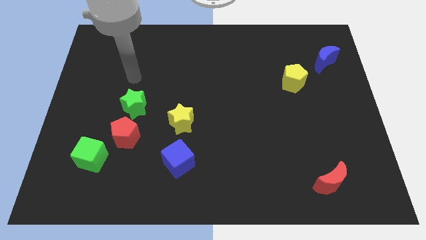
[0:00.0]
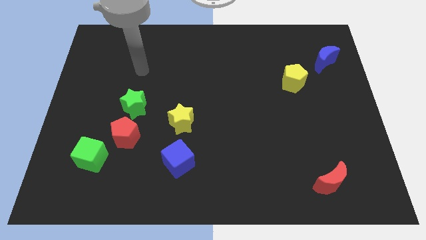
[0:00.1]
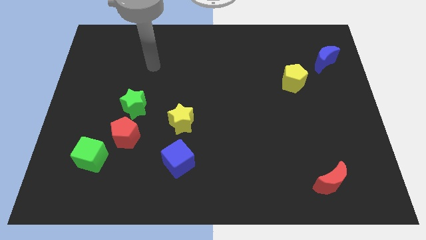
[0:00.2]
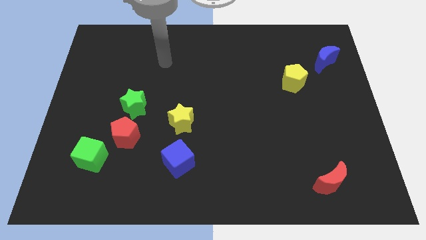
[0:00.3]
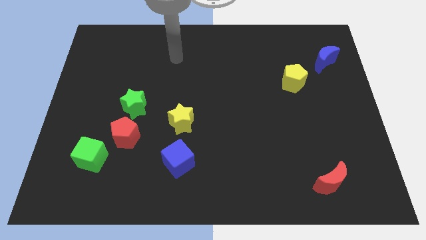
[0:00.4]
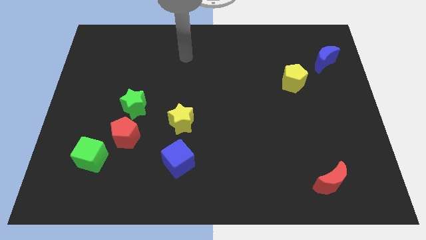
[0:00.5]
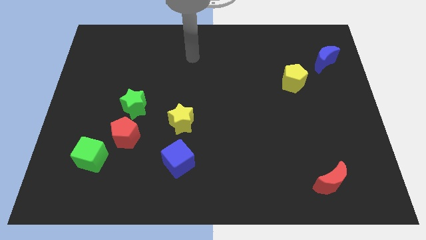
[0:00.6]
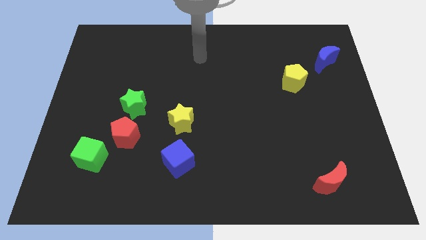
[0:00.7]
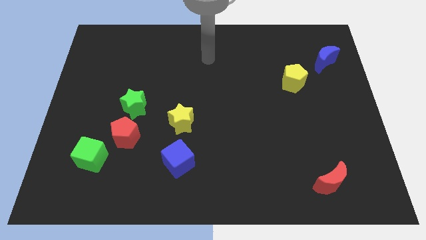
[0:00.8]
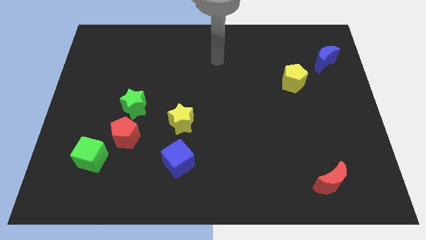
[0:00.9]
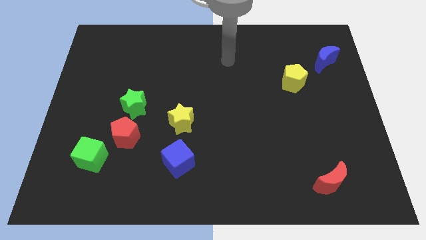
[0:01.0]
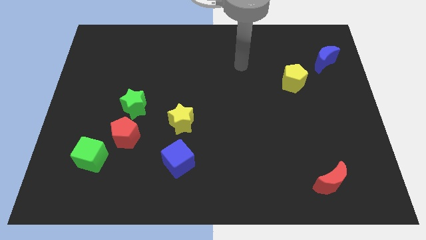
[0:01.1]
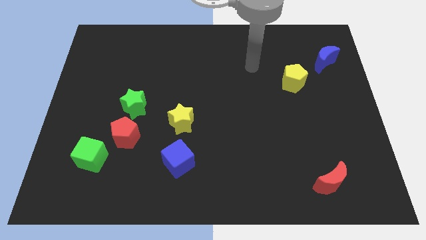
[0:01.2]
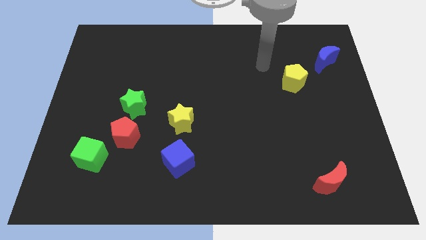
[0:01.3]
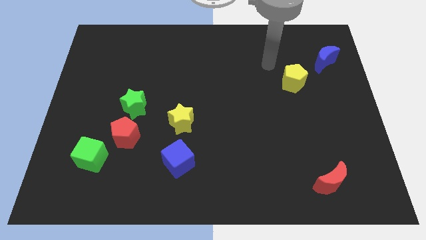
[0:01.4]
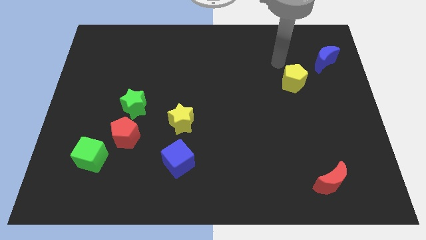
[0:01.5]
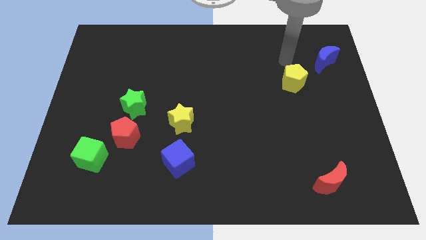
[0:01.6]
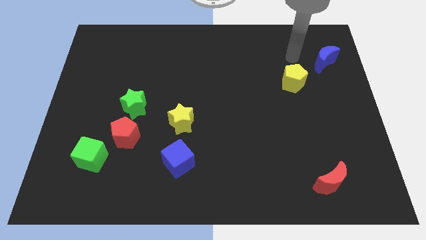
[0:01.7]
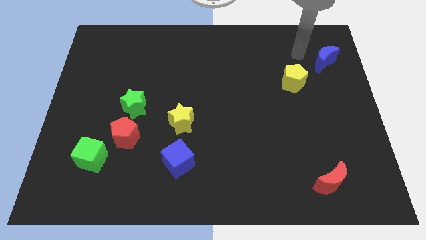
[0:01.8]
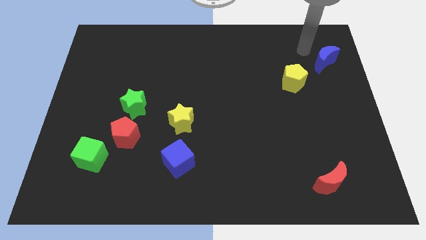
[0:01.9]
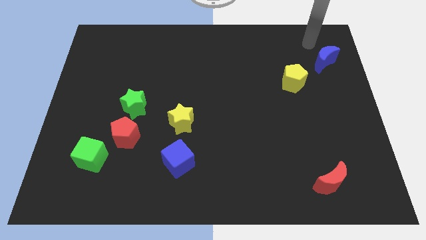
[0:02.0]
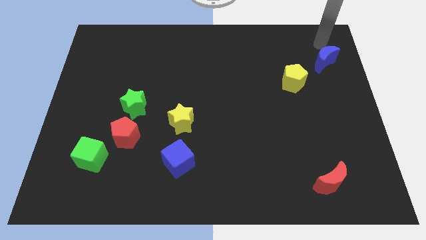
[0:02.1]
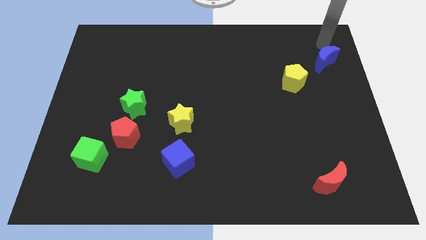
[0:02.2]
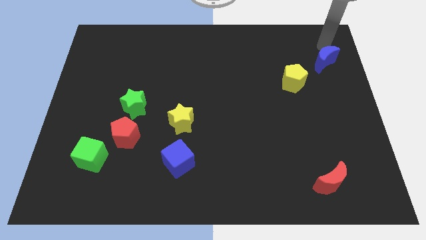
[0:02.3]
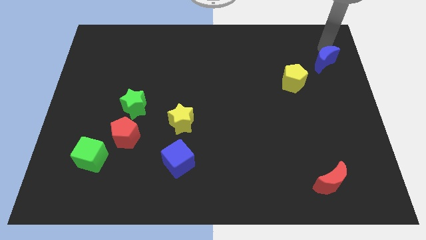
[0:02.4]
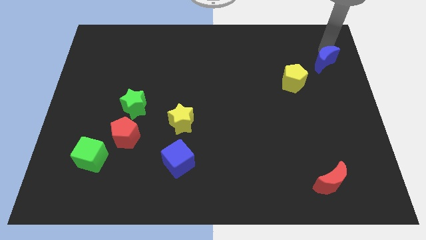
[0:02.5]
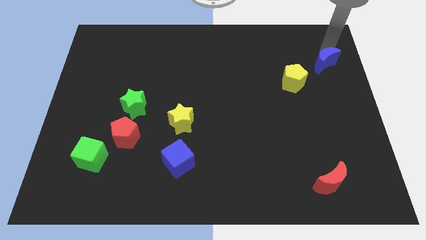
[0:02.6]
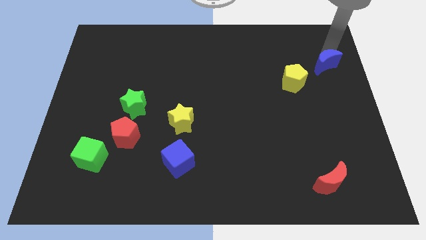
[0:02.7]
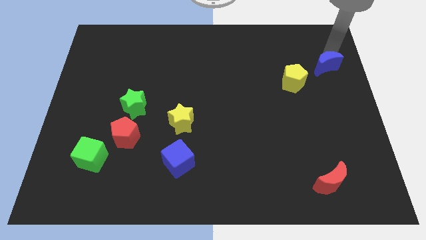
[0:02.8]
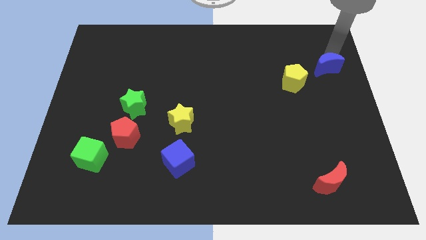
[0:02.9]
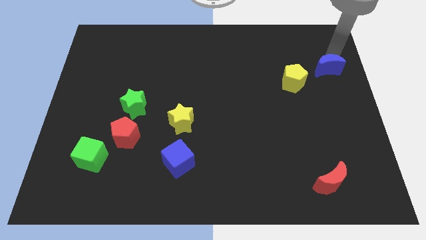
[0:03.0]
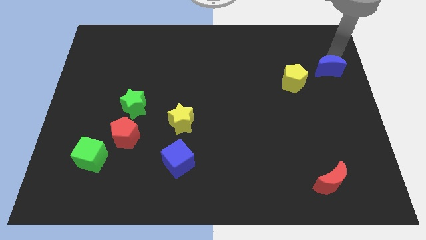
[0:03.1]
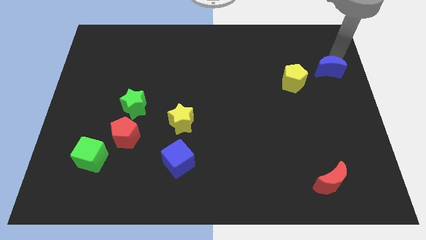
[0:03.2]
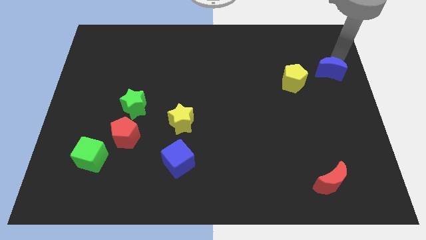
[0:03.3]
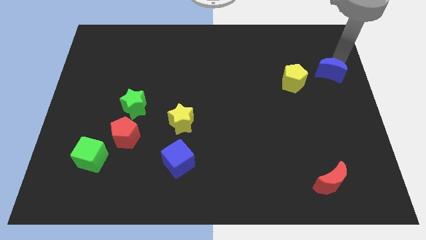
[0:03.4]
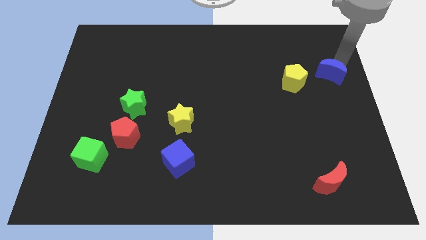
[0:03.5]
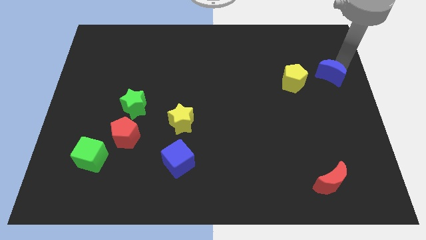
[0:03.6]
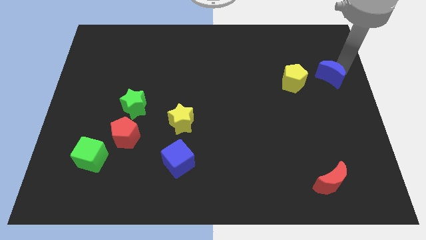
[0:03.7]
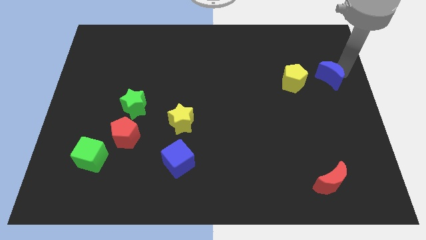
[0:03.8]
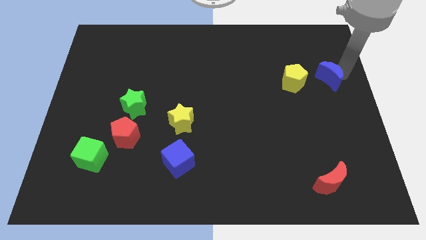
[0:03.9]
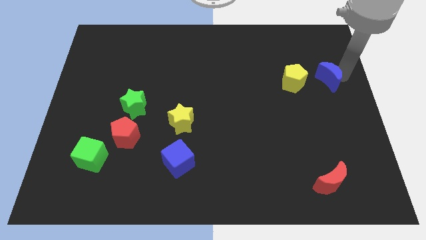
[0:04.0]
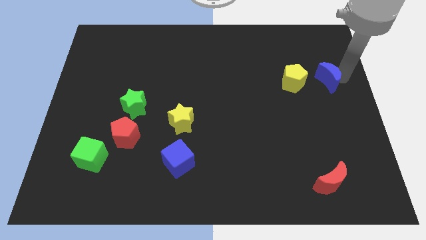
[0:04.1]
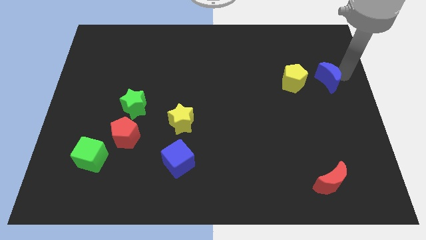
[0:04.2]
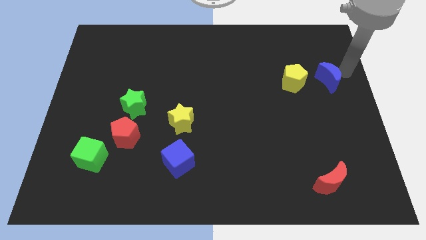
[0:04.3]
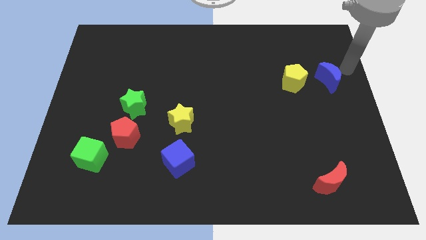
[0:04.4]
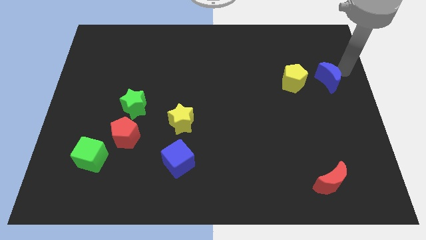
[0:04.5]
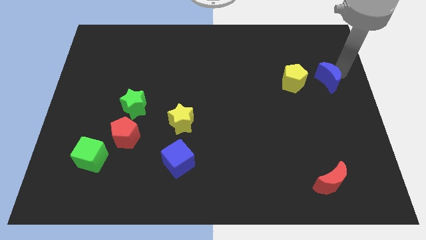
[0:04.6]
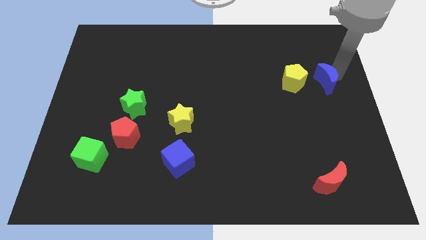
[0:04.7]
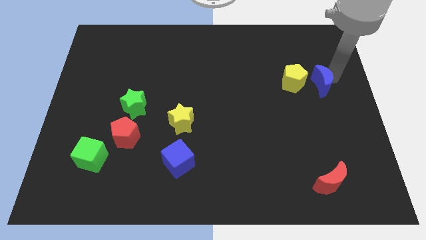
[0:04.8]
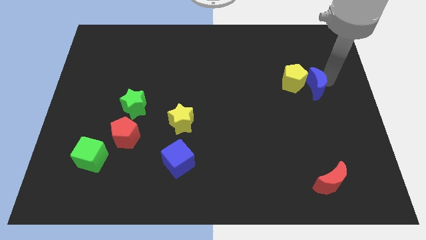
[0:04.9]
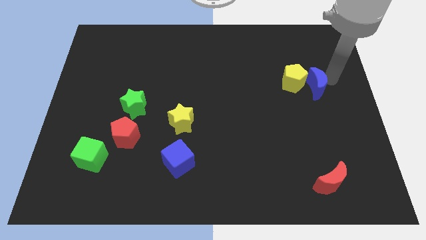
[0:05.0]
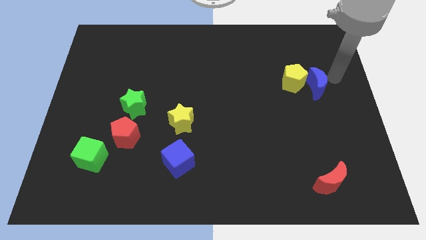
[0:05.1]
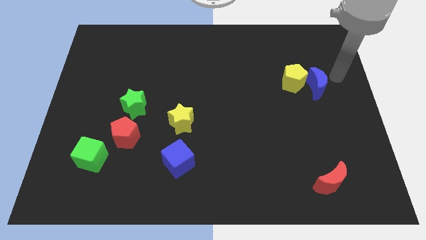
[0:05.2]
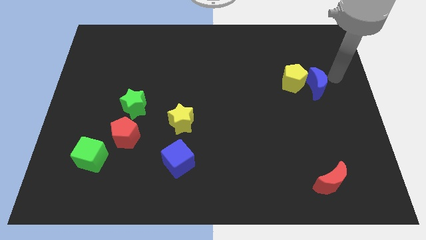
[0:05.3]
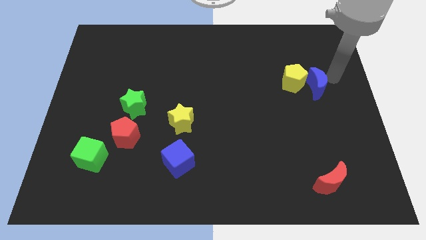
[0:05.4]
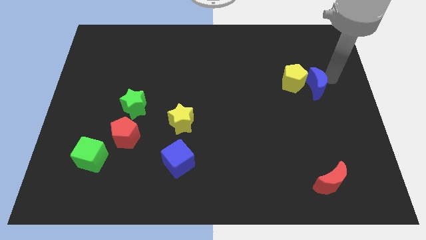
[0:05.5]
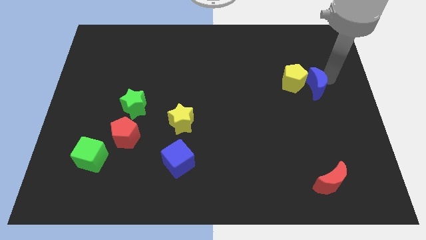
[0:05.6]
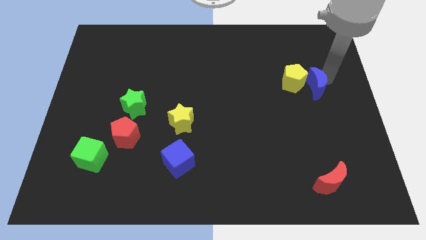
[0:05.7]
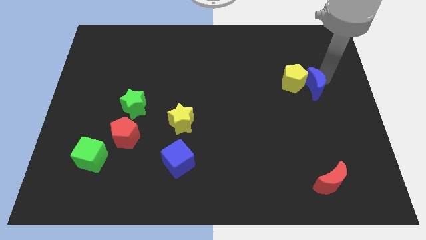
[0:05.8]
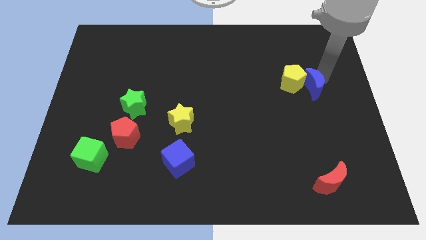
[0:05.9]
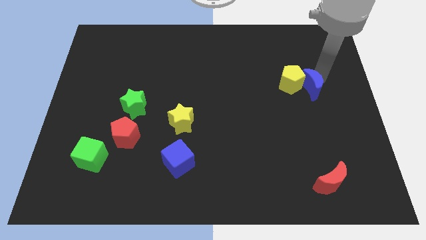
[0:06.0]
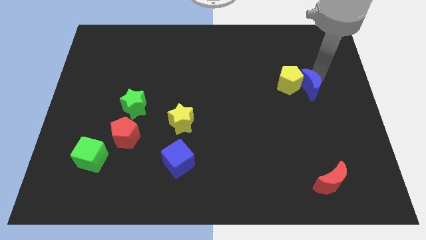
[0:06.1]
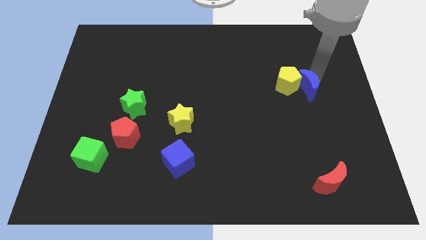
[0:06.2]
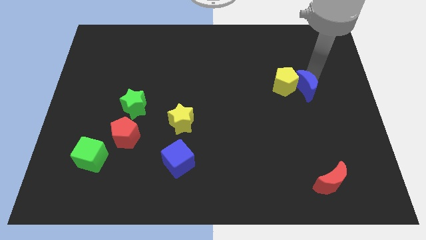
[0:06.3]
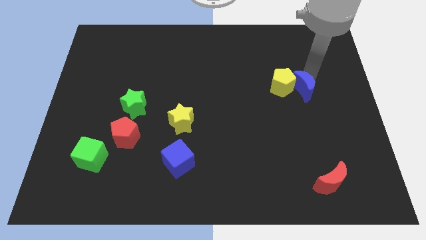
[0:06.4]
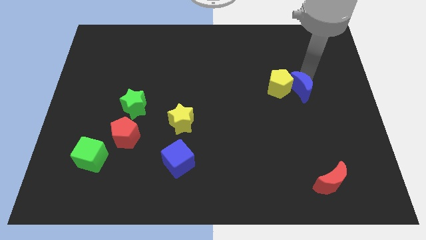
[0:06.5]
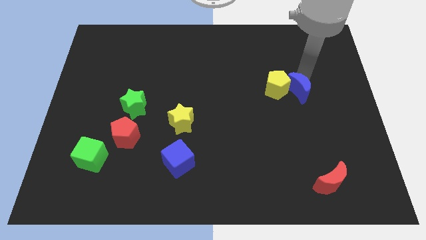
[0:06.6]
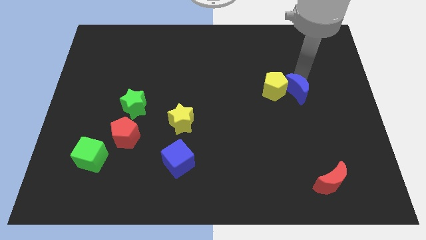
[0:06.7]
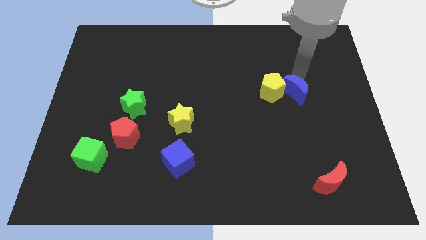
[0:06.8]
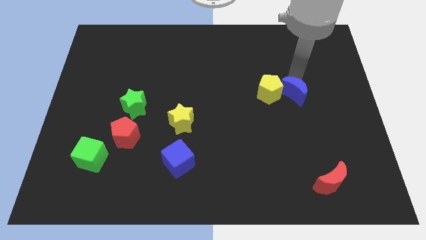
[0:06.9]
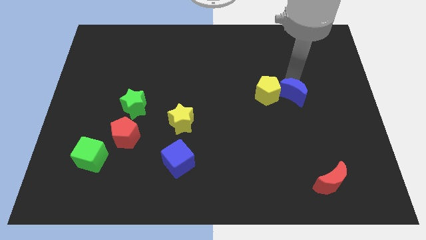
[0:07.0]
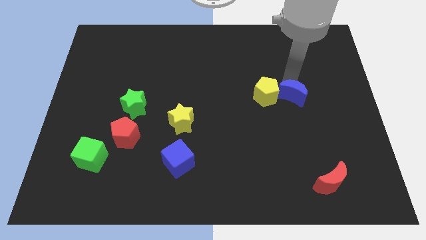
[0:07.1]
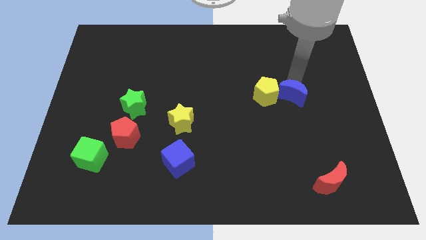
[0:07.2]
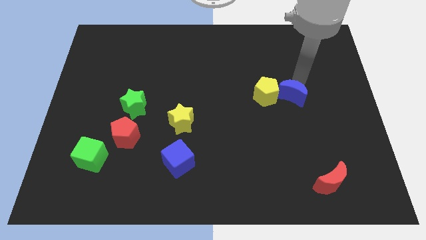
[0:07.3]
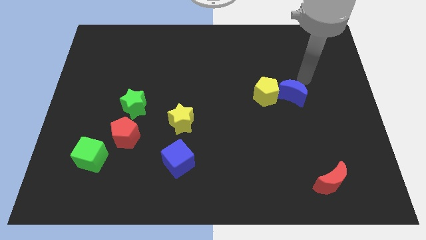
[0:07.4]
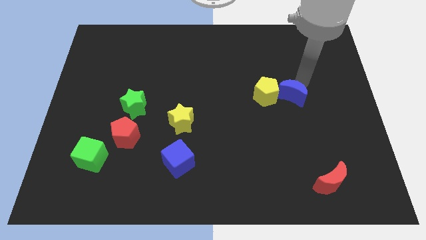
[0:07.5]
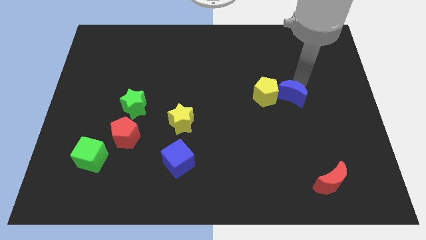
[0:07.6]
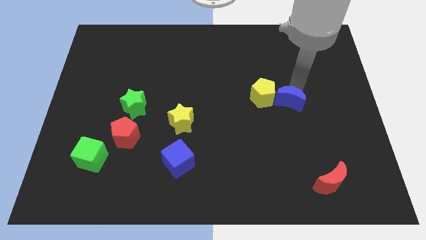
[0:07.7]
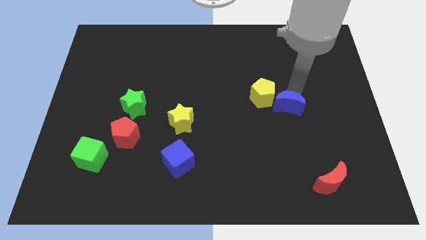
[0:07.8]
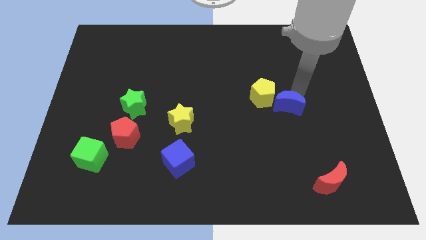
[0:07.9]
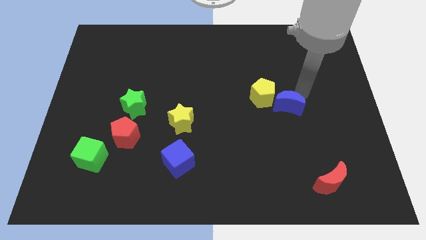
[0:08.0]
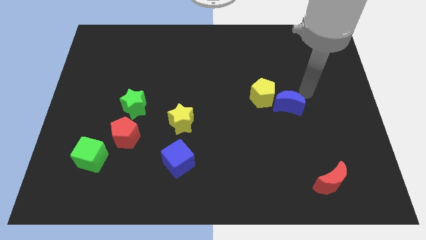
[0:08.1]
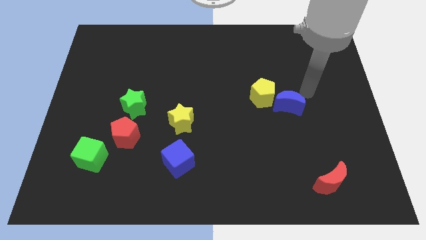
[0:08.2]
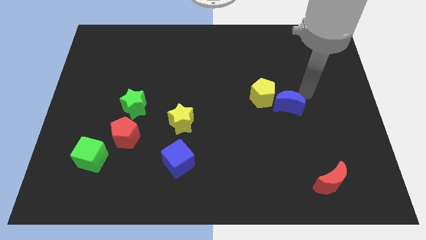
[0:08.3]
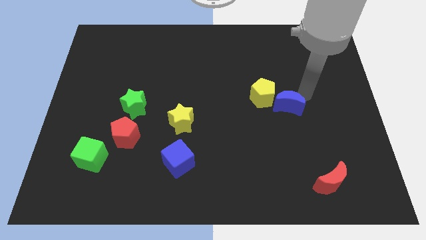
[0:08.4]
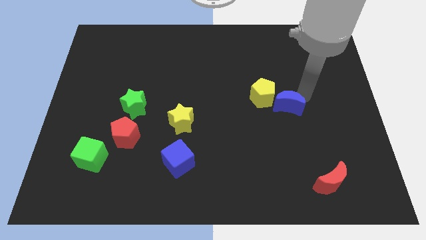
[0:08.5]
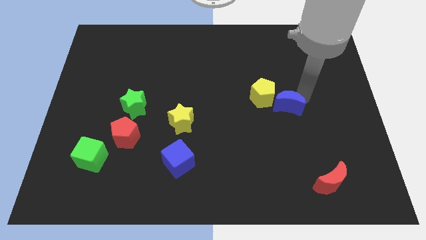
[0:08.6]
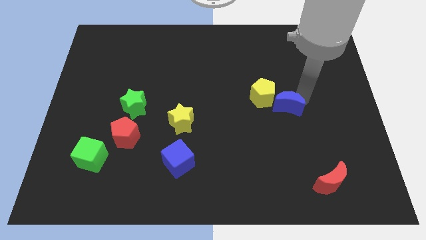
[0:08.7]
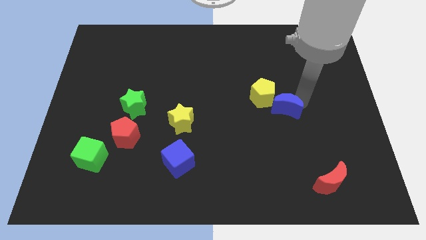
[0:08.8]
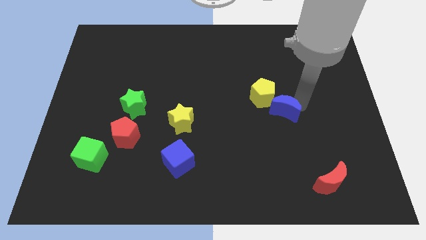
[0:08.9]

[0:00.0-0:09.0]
move the blue moon downwards and then to the left
